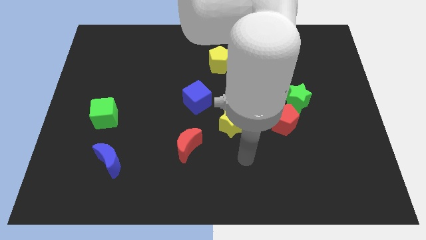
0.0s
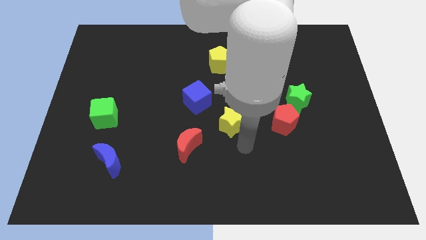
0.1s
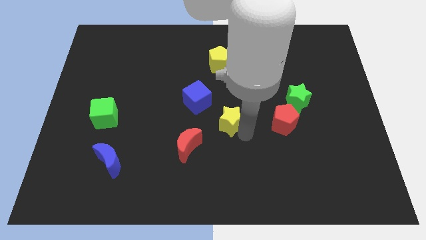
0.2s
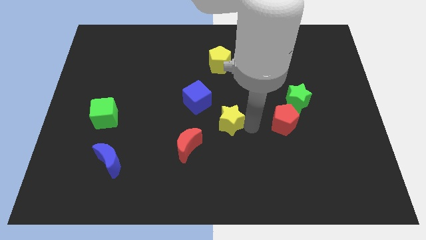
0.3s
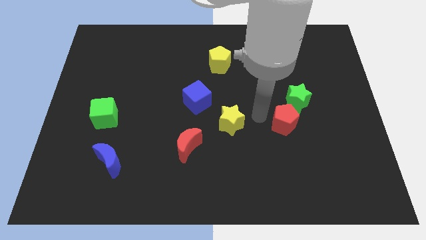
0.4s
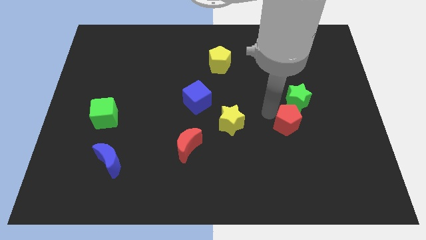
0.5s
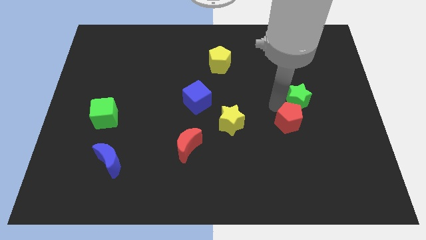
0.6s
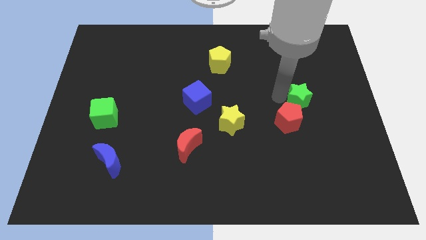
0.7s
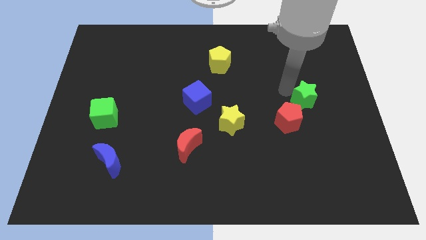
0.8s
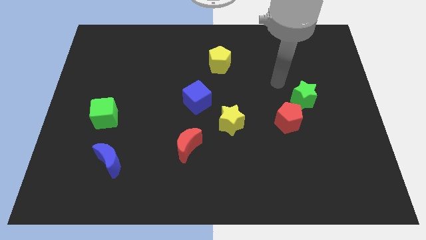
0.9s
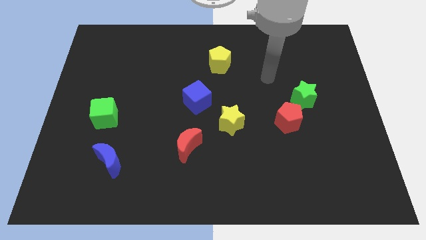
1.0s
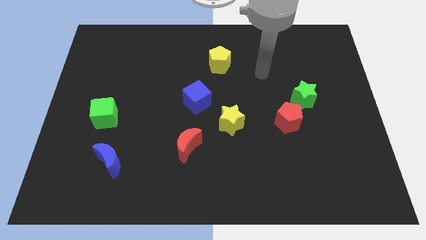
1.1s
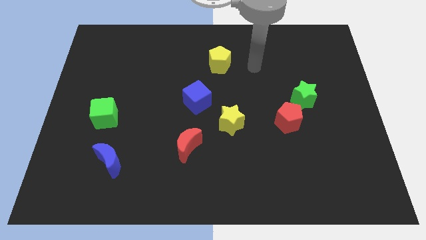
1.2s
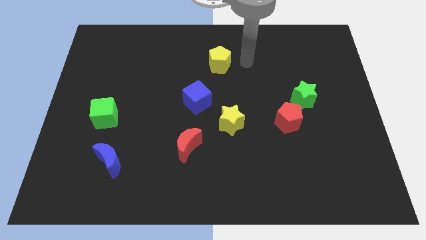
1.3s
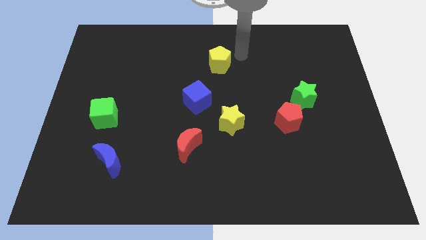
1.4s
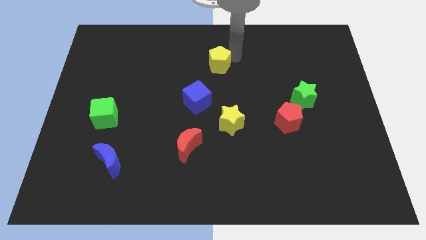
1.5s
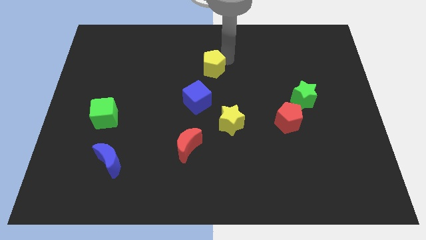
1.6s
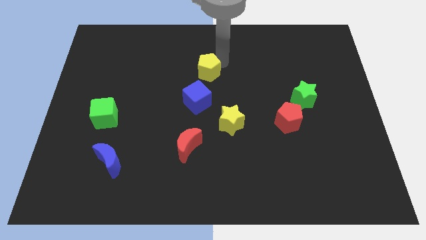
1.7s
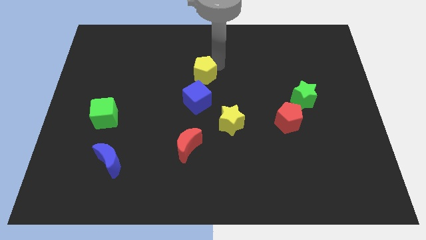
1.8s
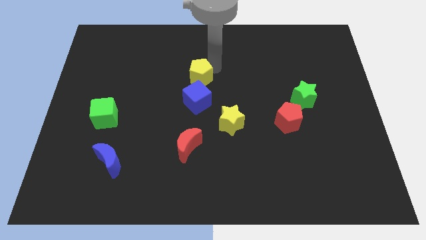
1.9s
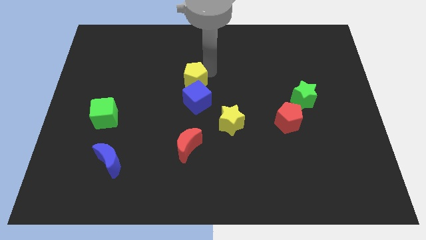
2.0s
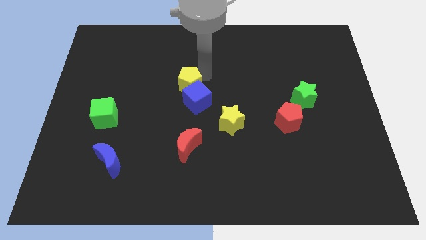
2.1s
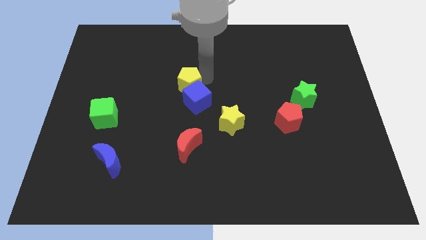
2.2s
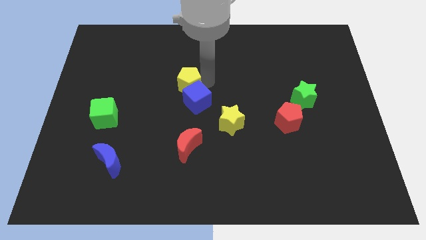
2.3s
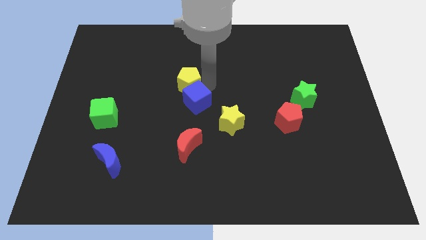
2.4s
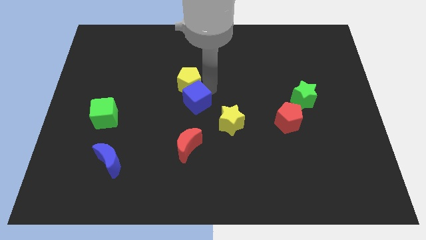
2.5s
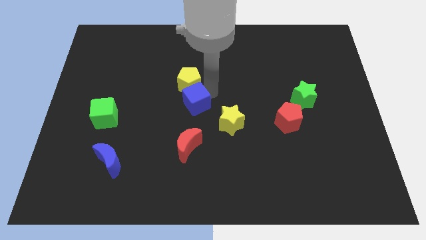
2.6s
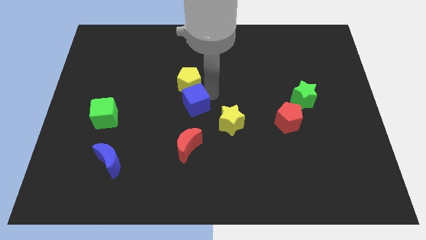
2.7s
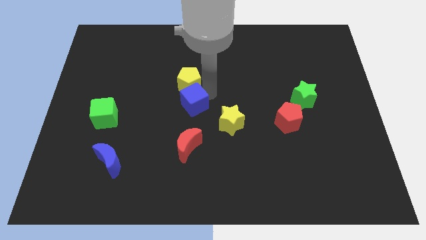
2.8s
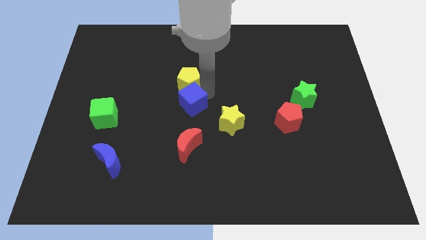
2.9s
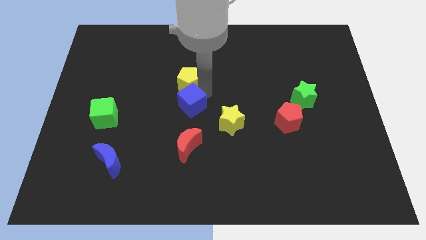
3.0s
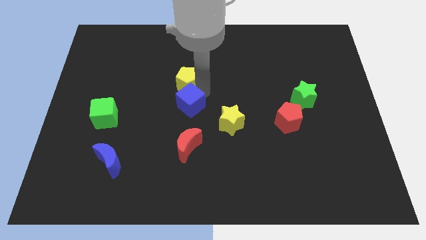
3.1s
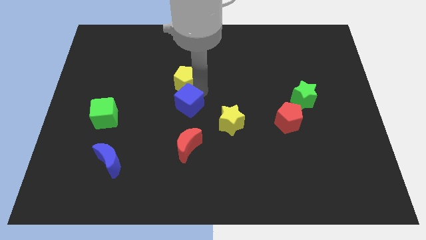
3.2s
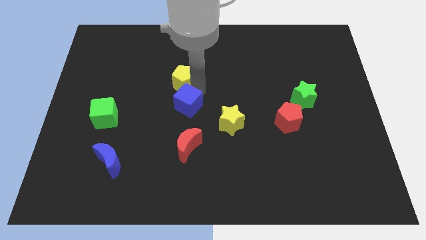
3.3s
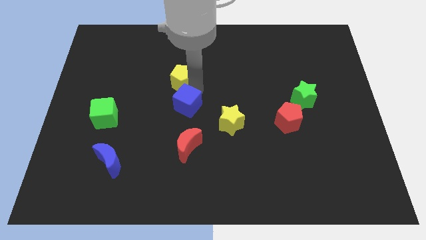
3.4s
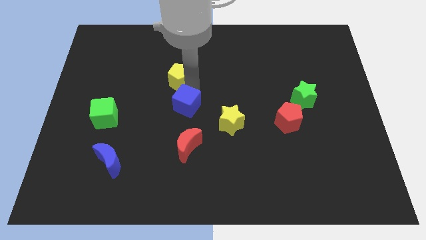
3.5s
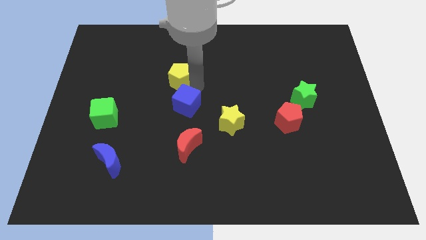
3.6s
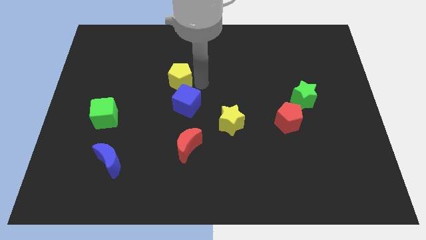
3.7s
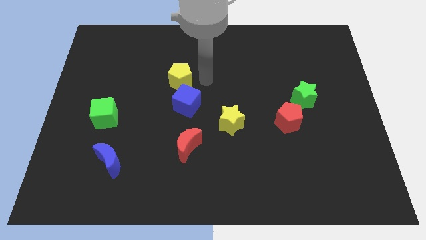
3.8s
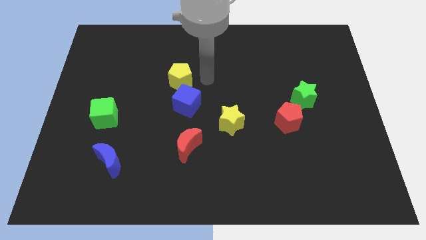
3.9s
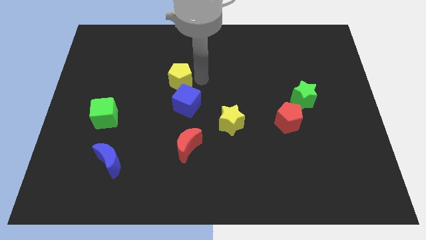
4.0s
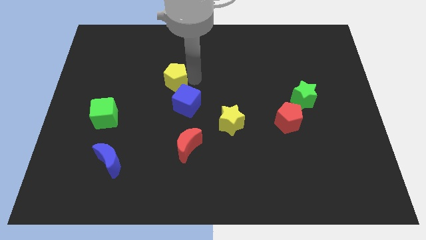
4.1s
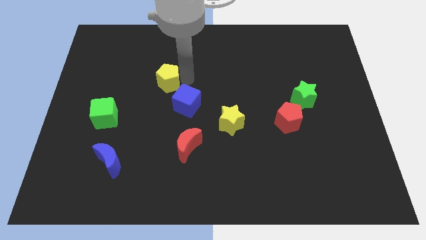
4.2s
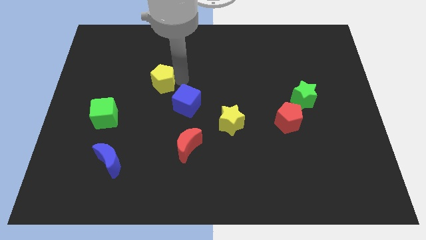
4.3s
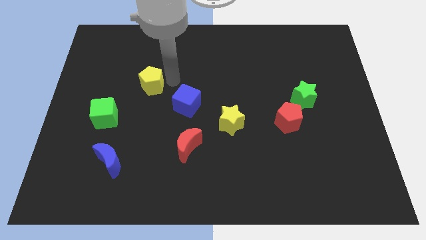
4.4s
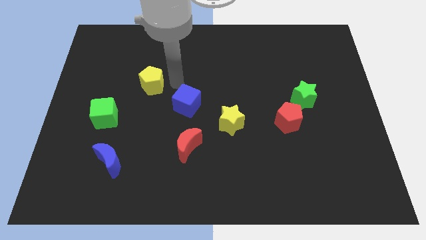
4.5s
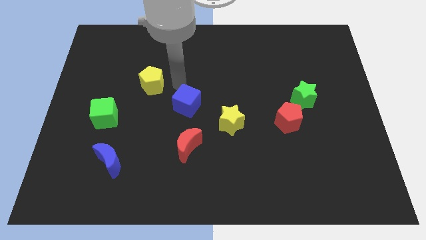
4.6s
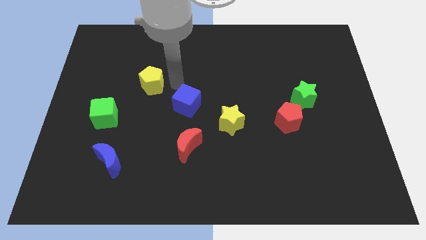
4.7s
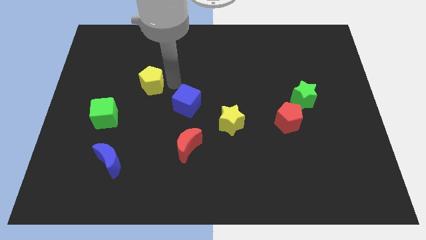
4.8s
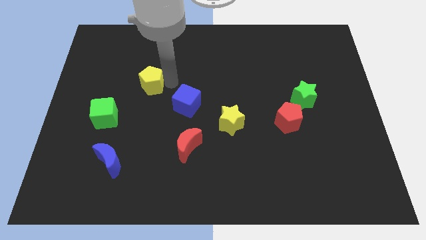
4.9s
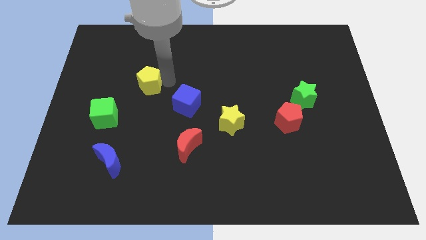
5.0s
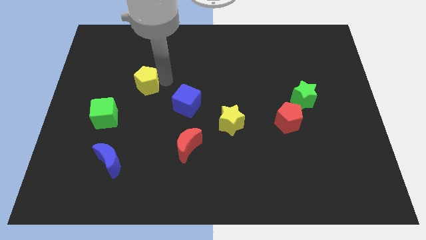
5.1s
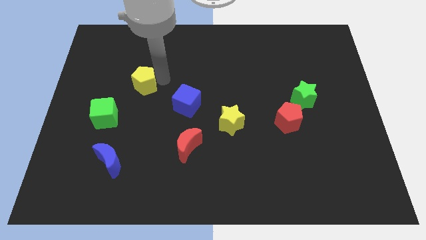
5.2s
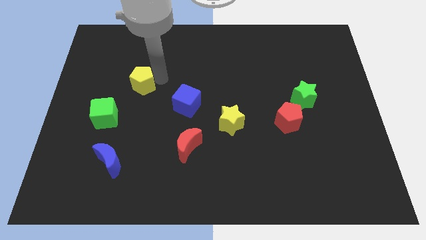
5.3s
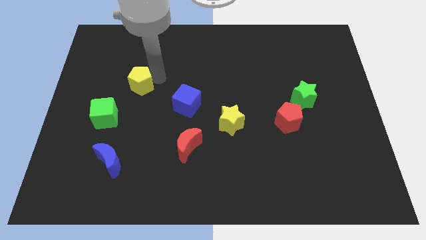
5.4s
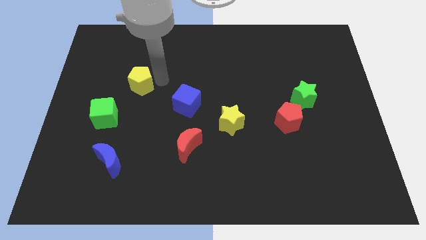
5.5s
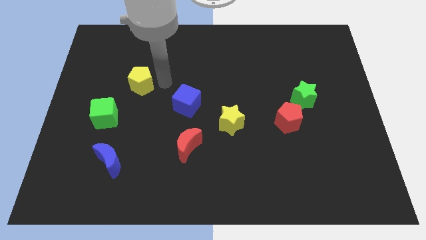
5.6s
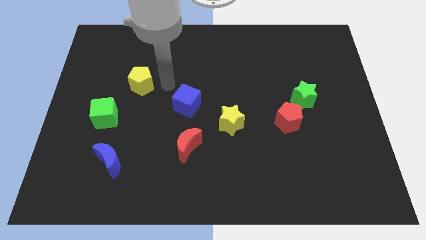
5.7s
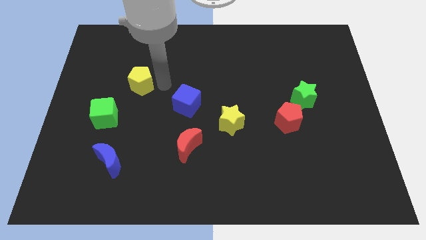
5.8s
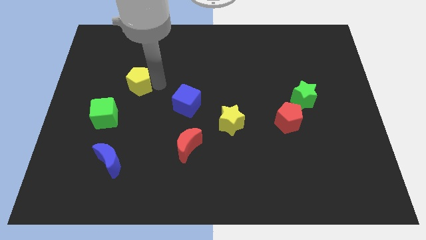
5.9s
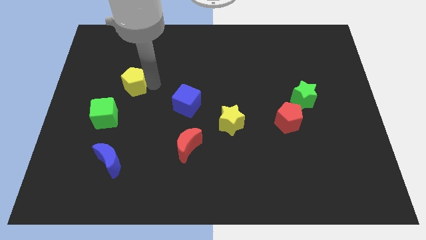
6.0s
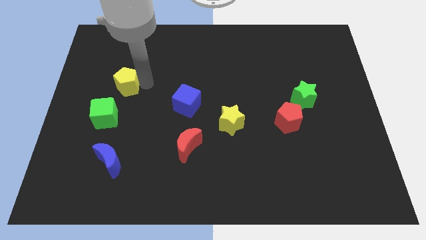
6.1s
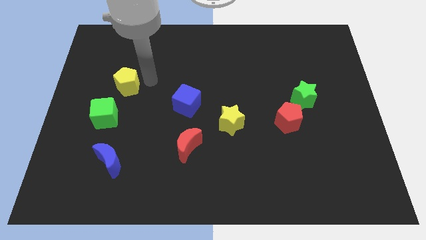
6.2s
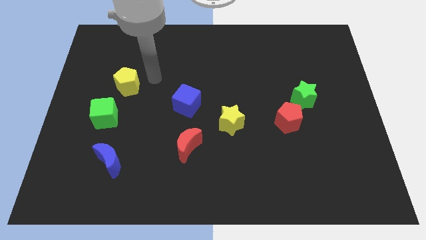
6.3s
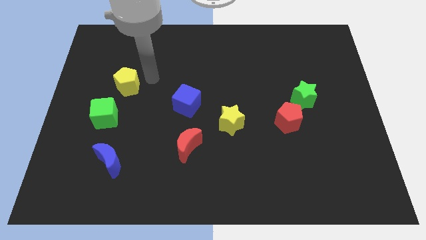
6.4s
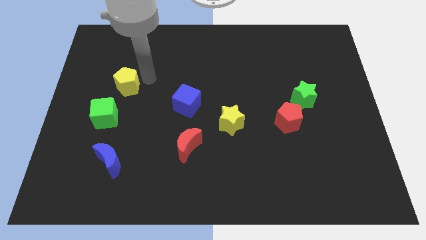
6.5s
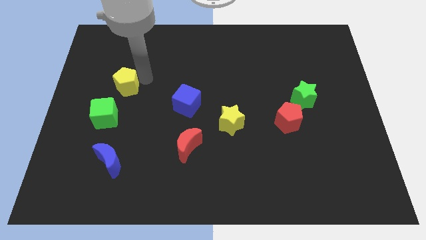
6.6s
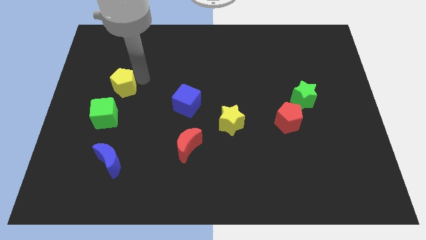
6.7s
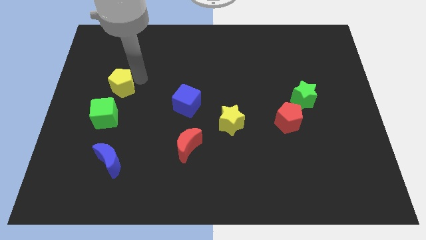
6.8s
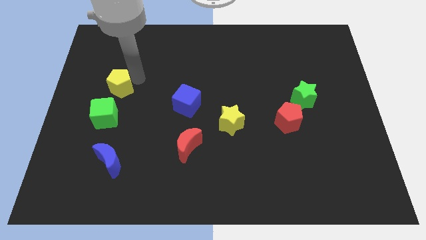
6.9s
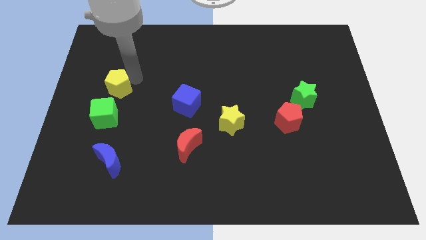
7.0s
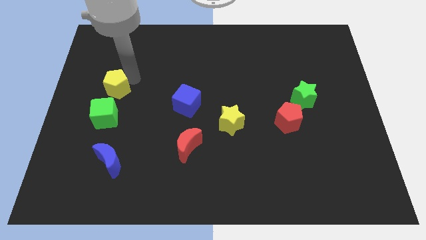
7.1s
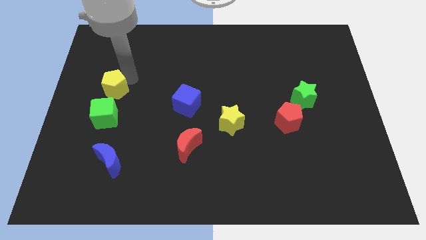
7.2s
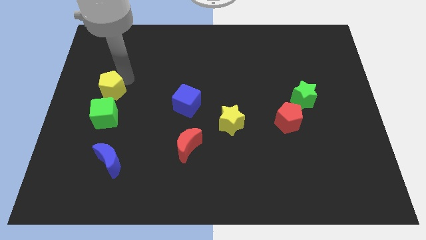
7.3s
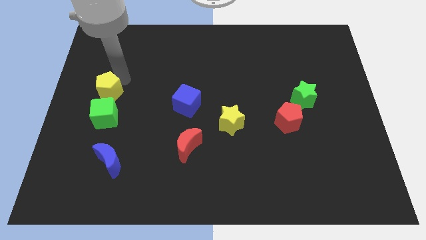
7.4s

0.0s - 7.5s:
push the yellow pentagon to the left side
